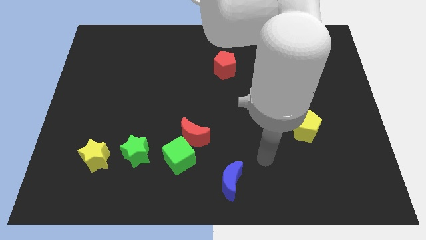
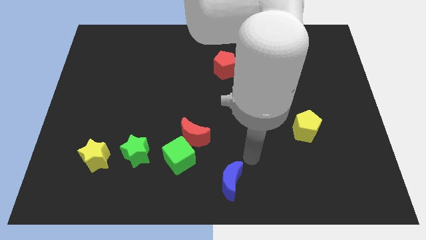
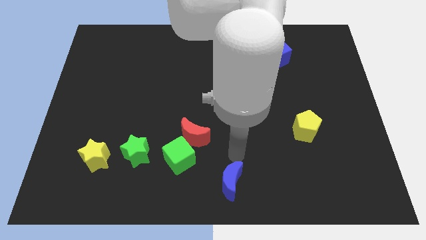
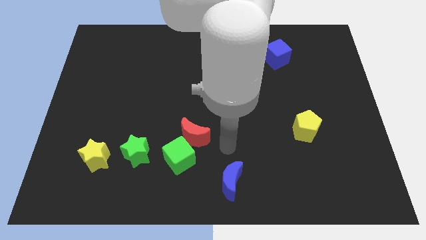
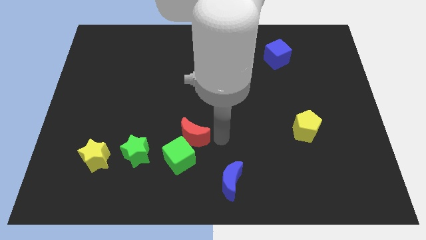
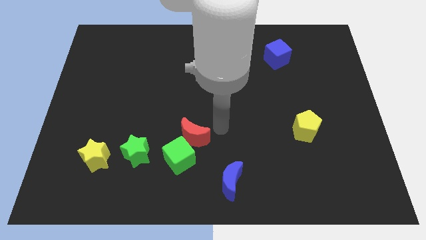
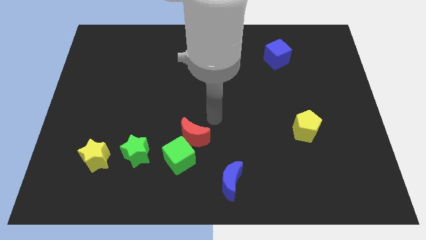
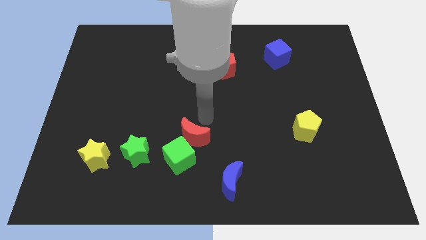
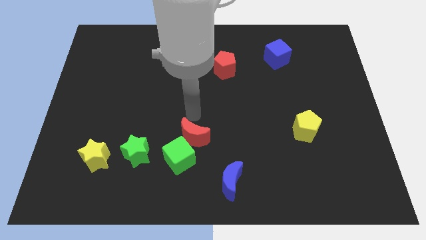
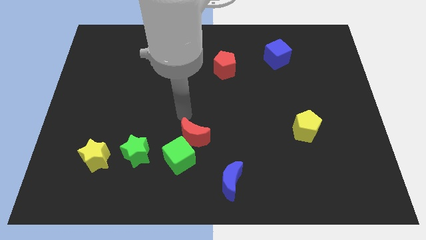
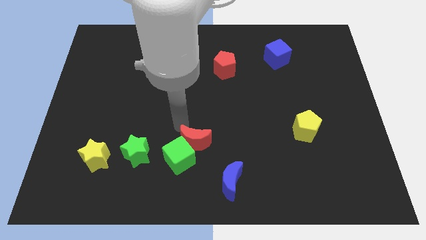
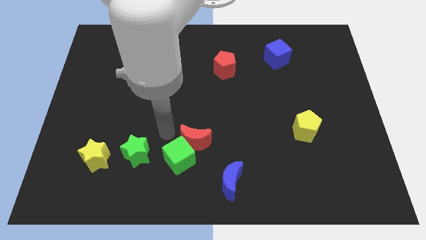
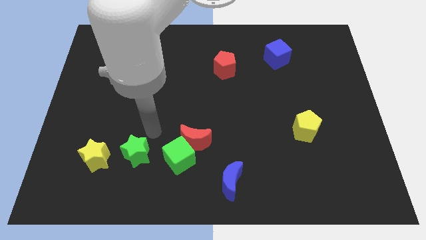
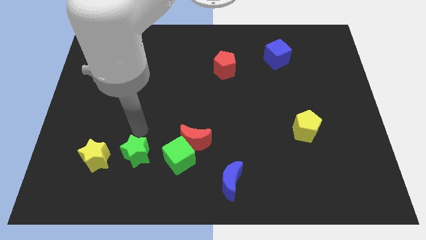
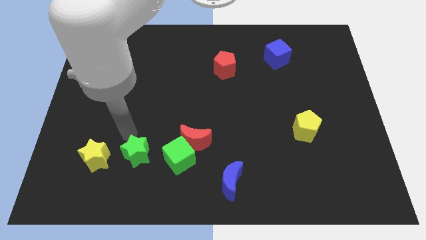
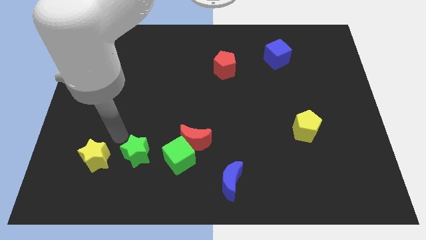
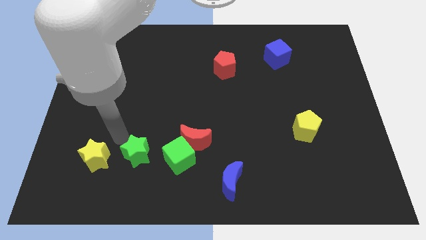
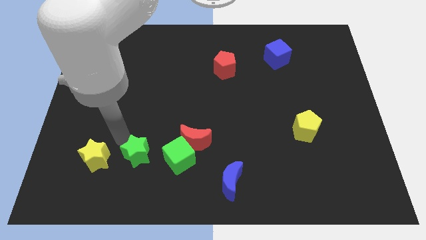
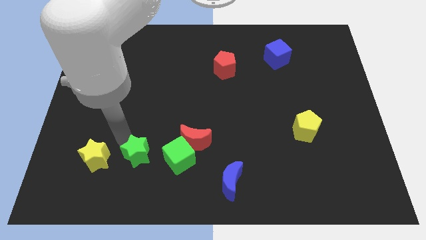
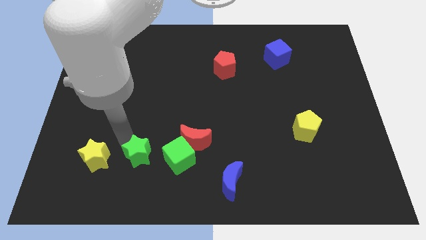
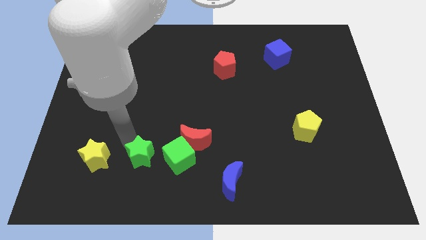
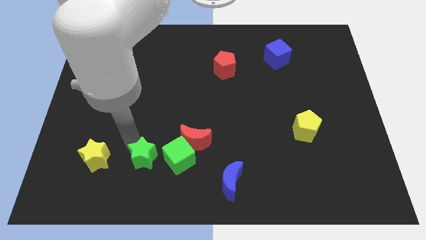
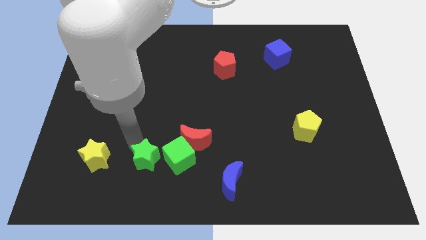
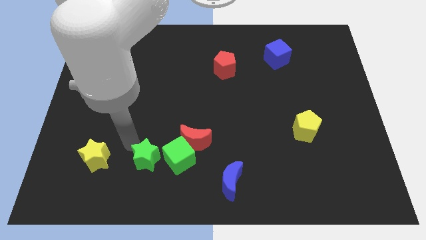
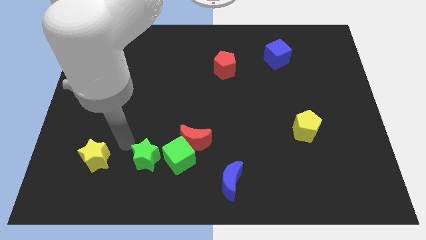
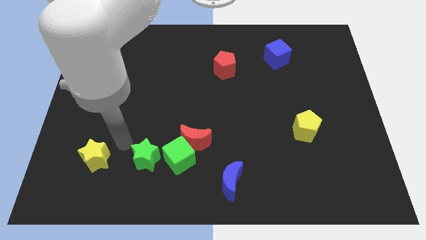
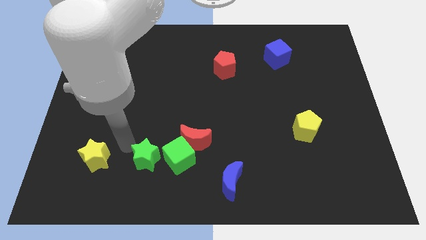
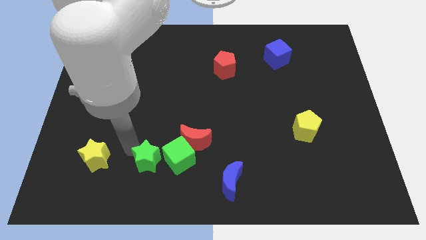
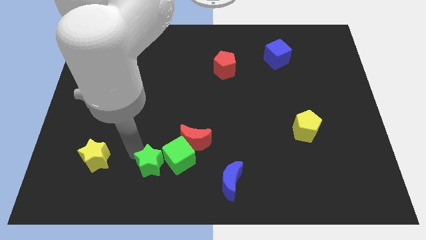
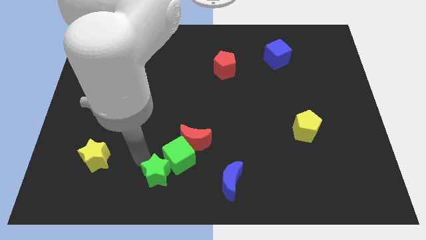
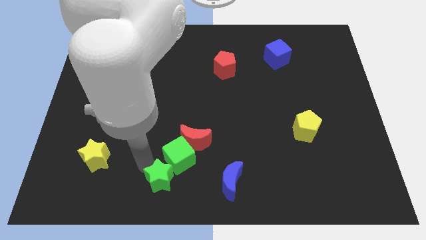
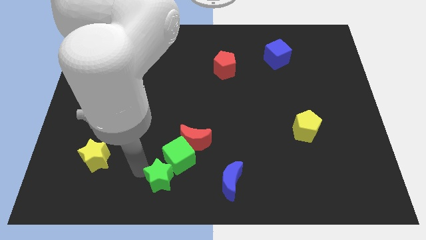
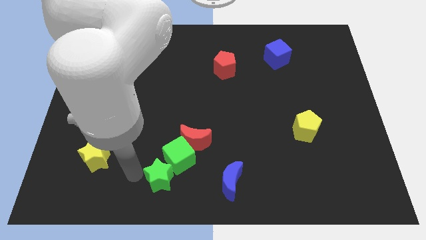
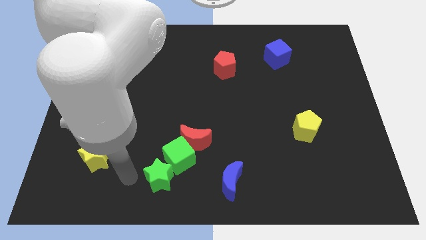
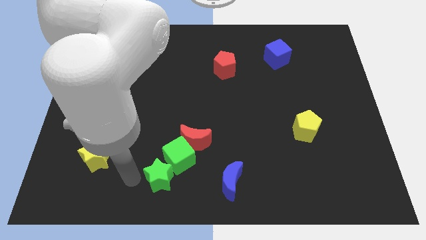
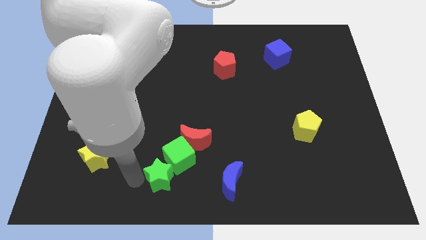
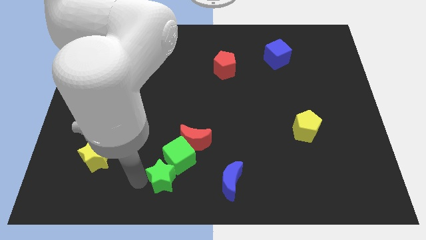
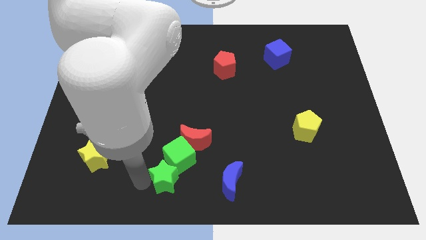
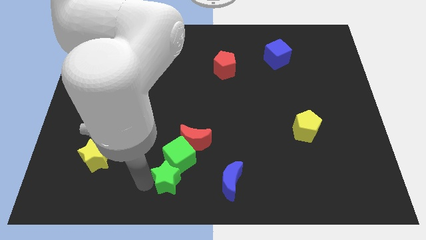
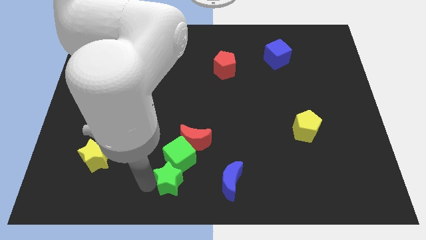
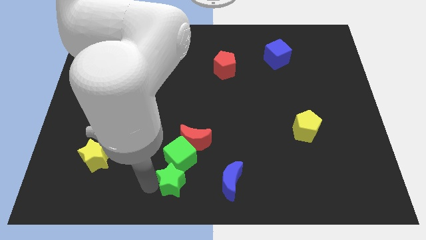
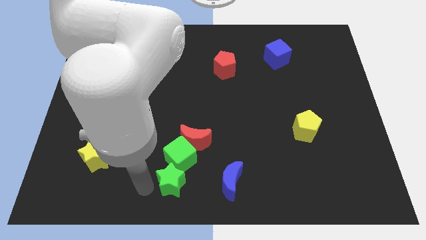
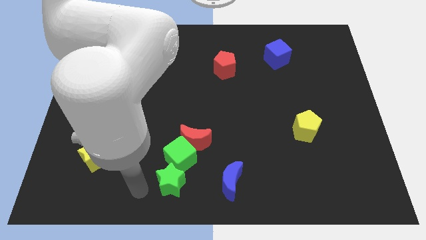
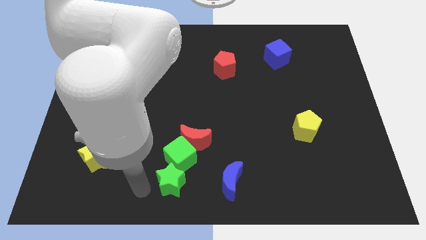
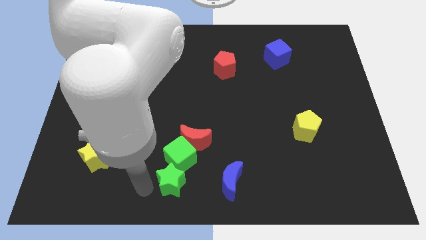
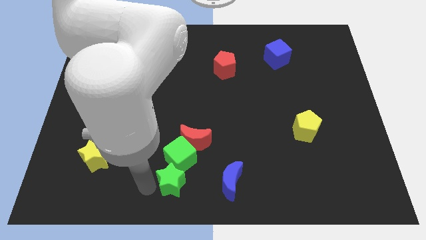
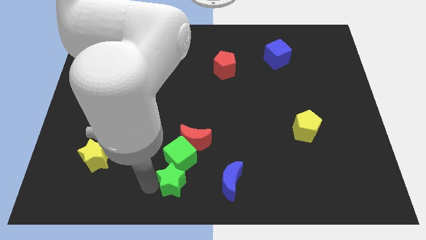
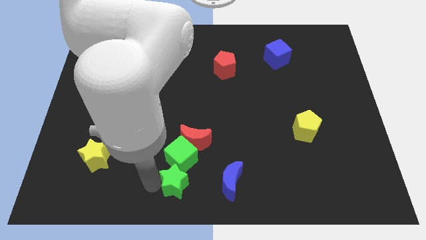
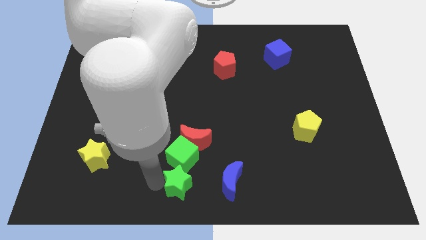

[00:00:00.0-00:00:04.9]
slightly push the green star to the right

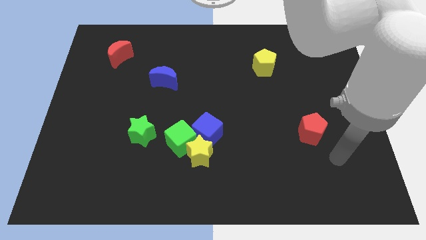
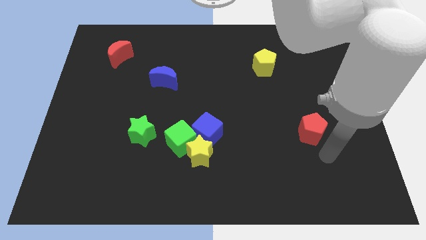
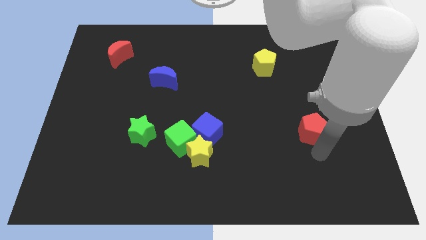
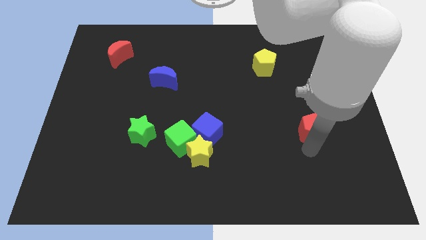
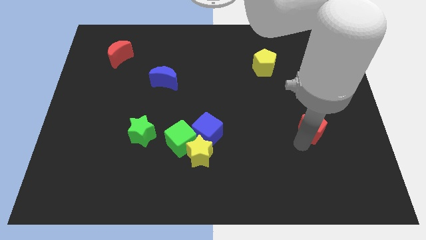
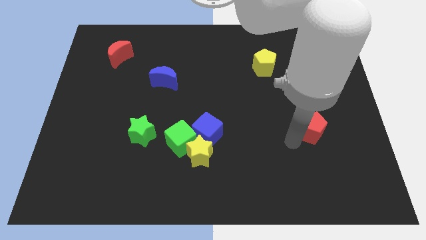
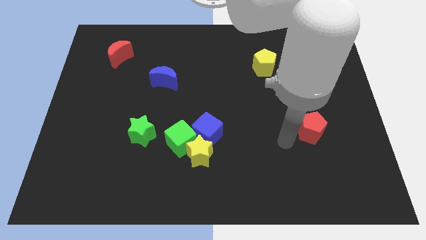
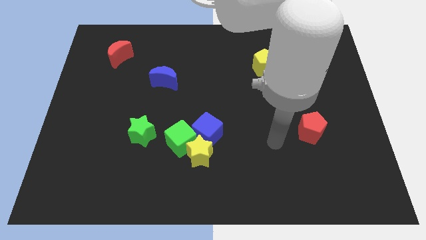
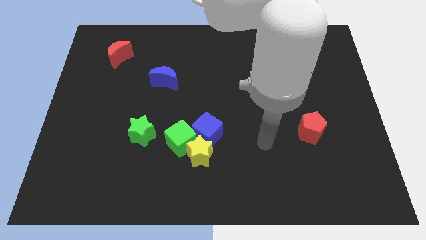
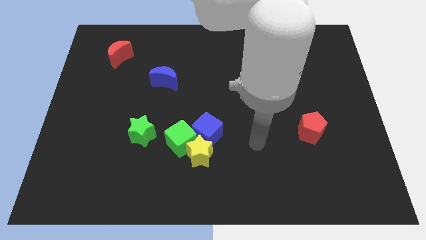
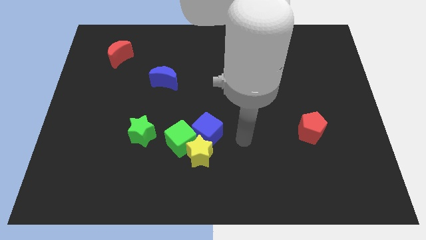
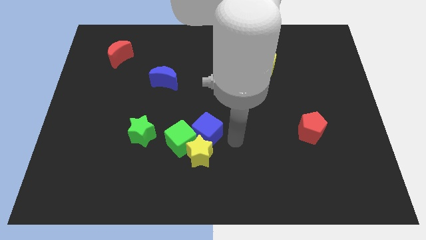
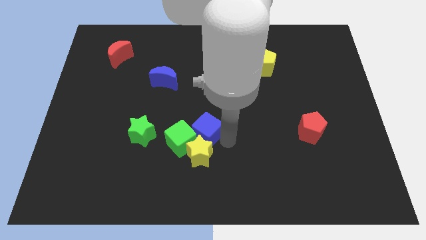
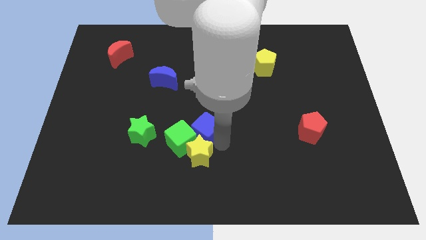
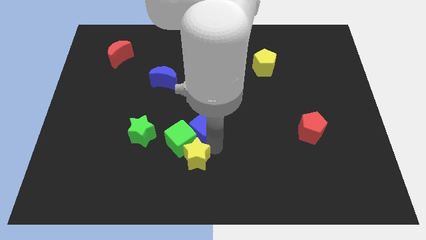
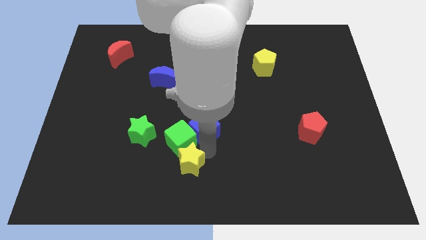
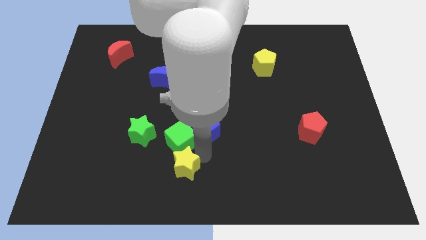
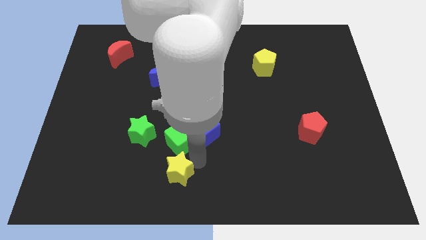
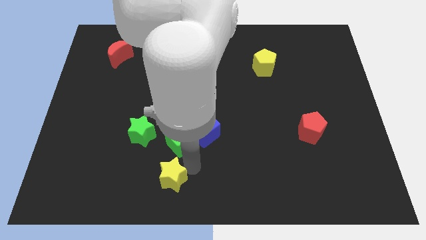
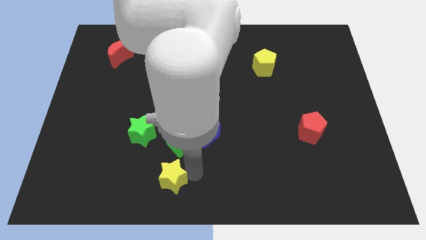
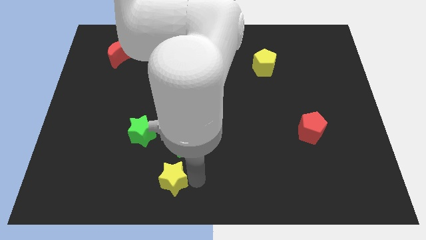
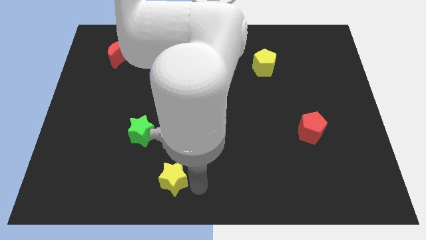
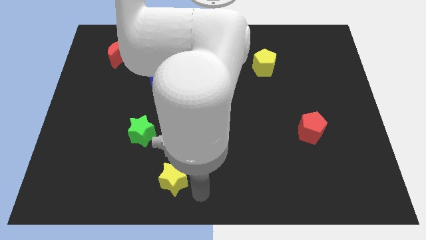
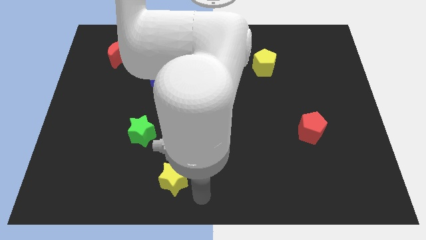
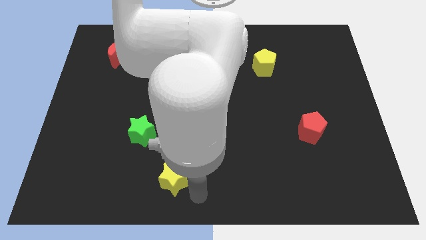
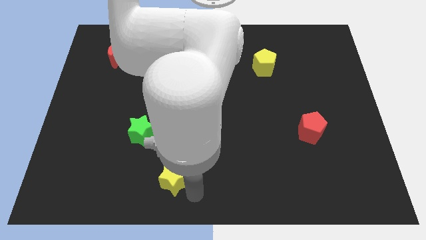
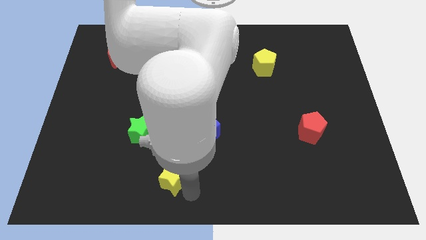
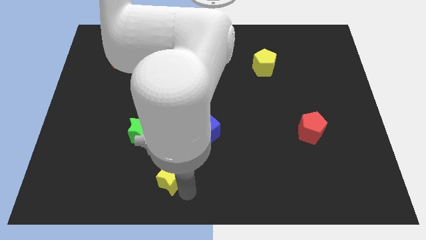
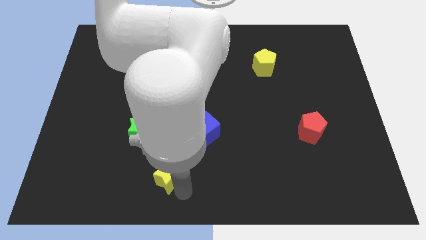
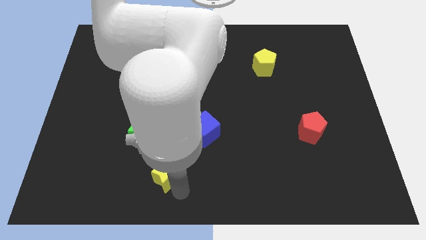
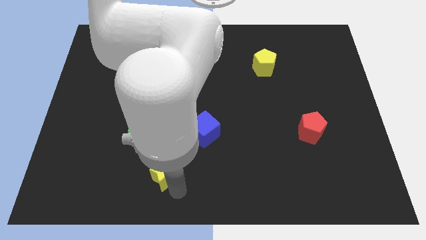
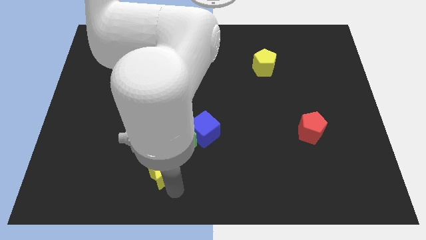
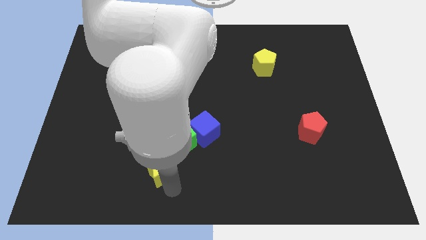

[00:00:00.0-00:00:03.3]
push the yellow star to the left a bit
